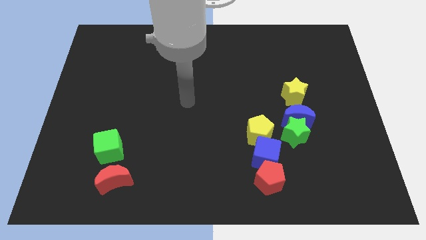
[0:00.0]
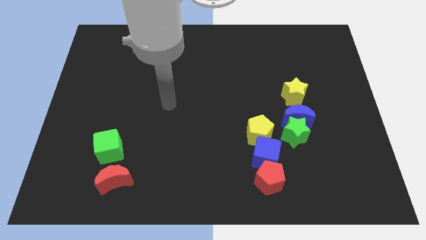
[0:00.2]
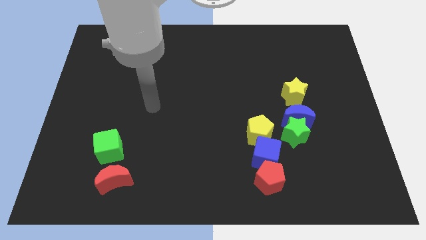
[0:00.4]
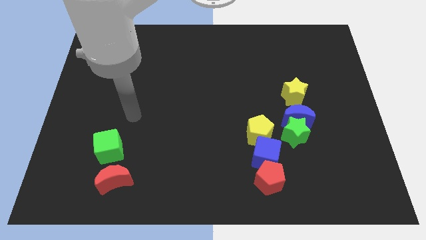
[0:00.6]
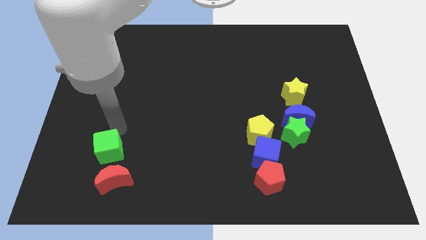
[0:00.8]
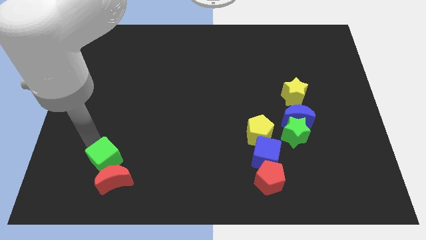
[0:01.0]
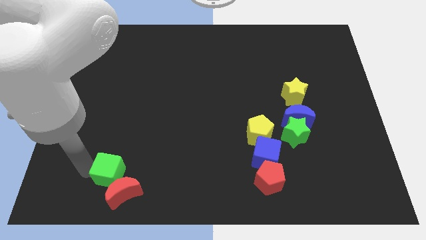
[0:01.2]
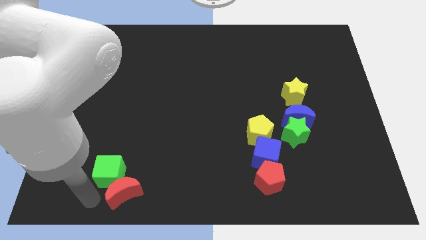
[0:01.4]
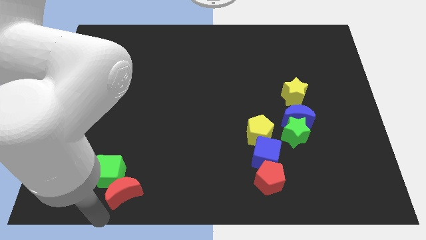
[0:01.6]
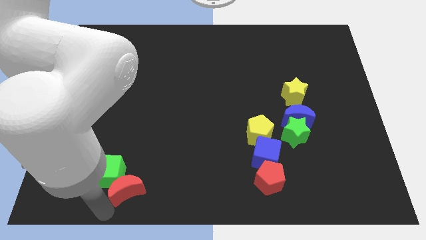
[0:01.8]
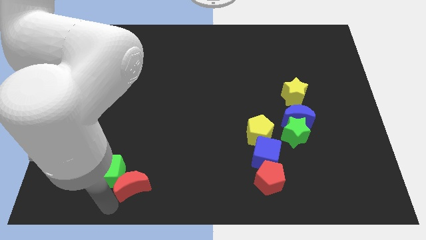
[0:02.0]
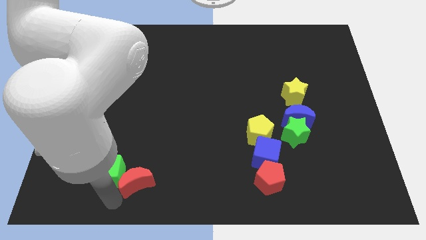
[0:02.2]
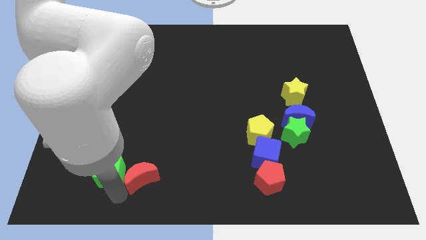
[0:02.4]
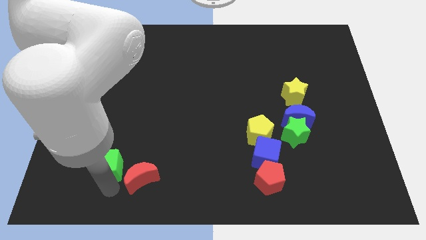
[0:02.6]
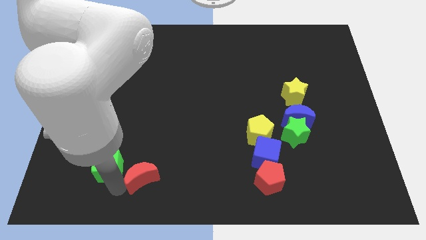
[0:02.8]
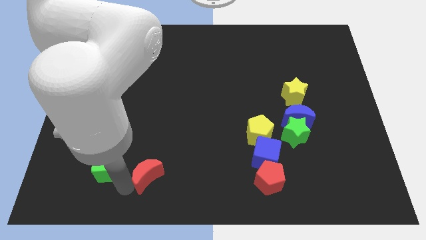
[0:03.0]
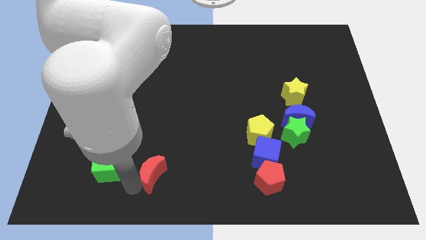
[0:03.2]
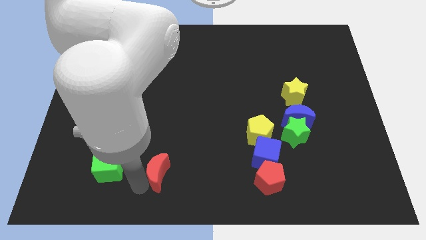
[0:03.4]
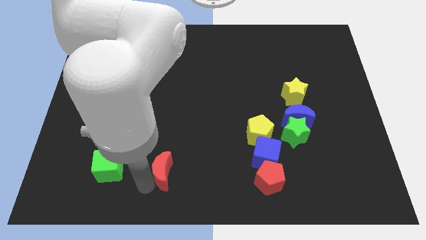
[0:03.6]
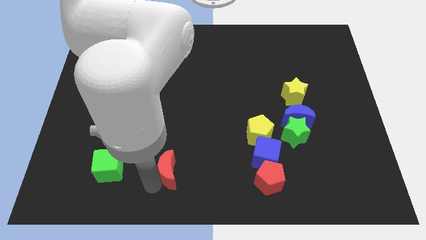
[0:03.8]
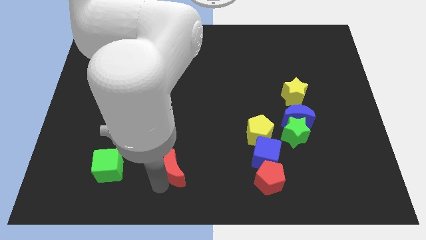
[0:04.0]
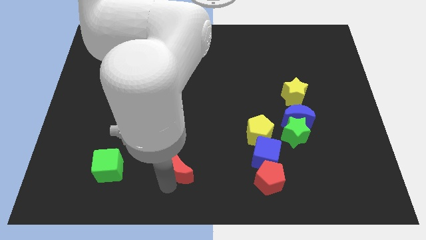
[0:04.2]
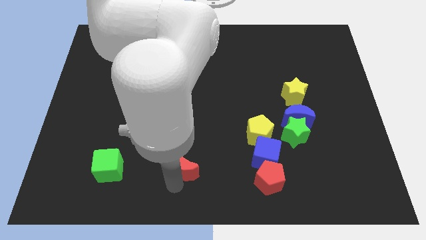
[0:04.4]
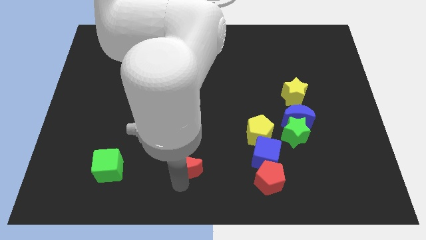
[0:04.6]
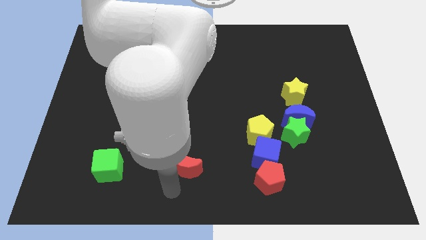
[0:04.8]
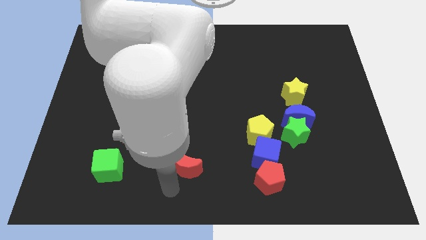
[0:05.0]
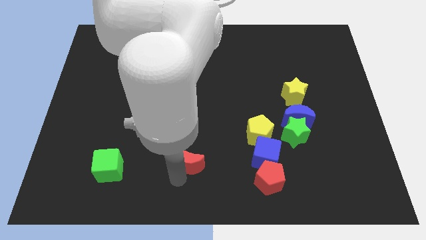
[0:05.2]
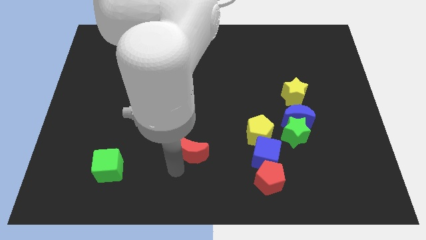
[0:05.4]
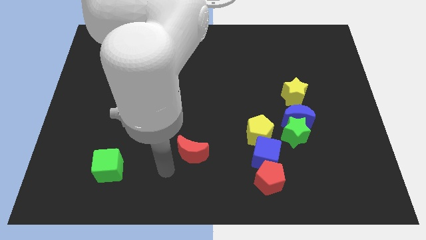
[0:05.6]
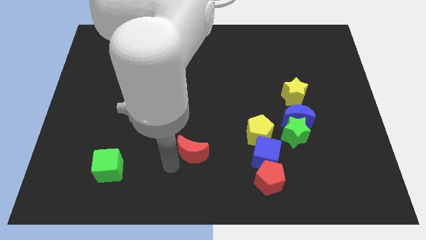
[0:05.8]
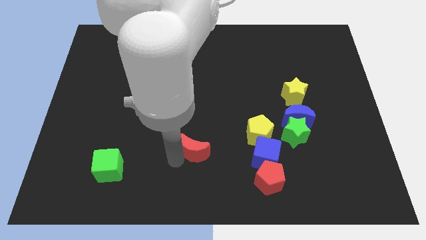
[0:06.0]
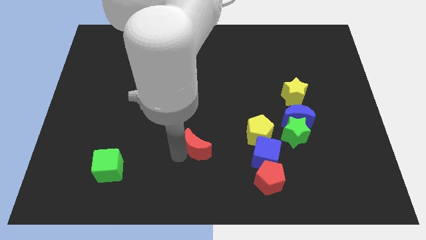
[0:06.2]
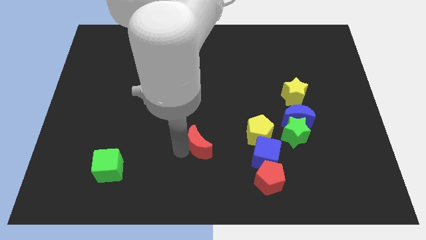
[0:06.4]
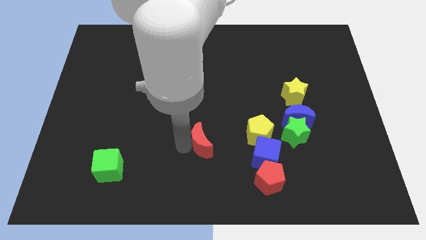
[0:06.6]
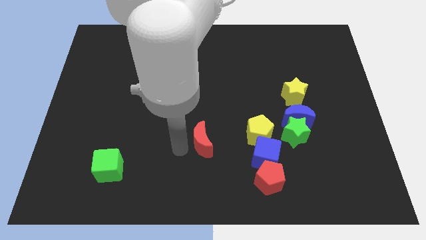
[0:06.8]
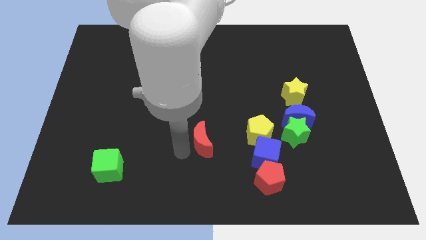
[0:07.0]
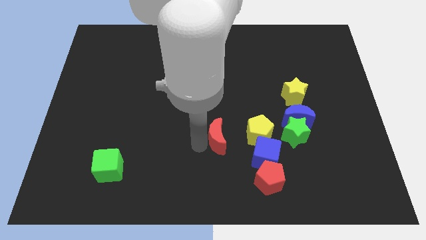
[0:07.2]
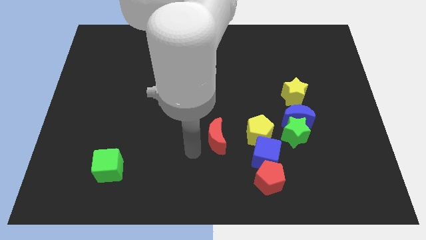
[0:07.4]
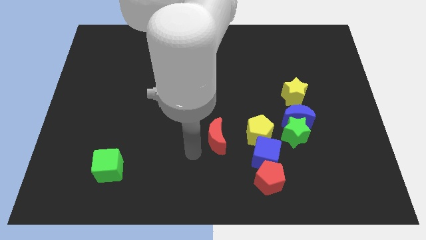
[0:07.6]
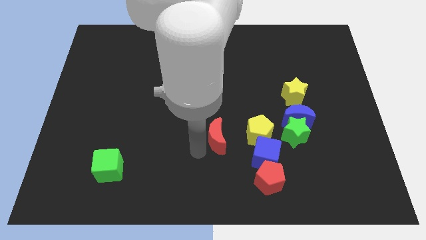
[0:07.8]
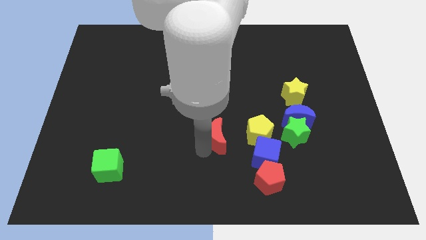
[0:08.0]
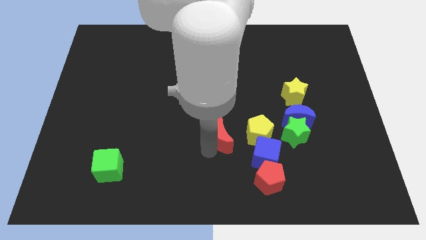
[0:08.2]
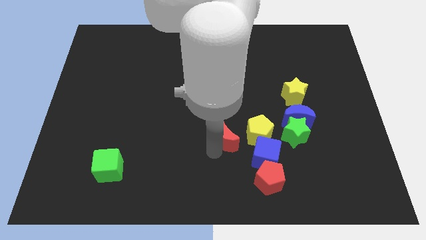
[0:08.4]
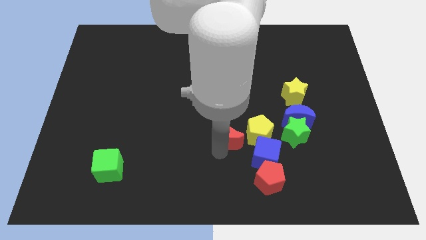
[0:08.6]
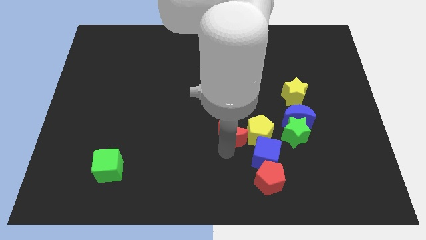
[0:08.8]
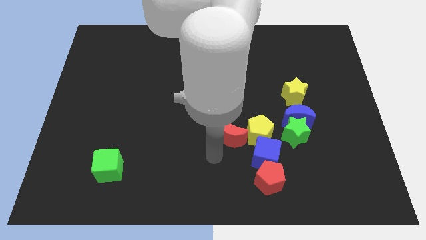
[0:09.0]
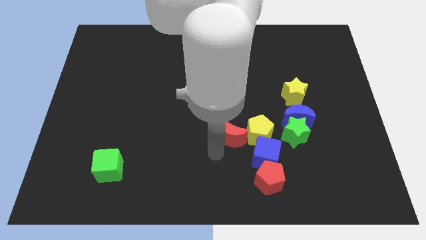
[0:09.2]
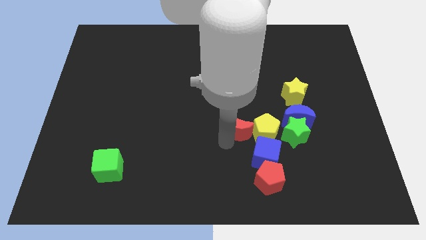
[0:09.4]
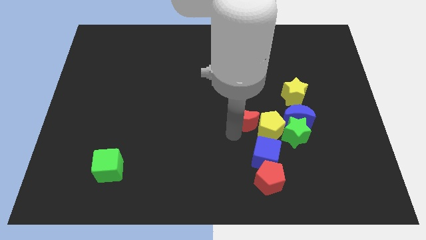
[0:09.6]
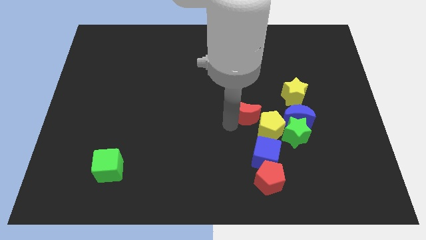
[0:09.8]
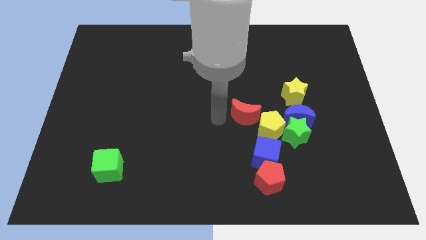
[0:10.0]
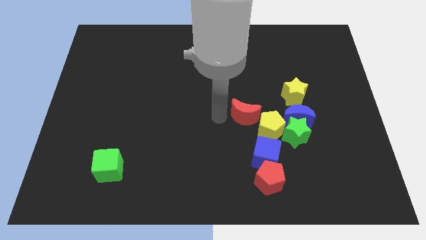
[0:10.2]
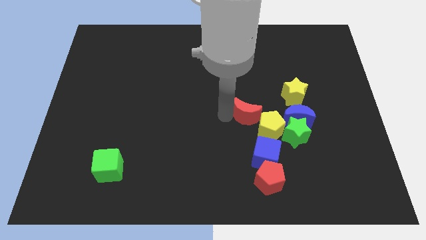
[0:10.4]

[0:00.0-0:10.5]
move the red moon to the top left of the green star

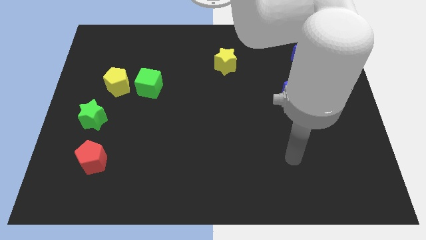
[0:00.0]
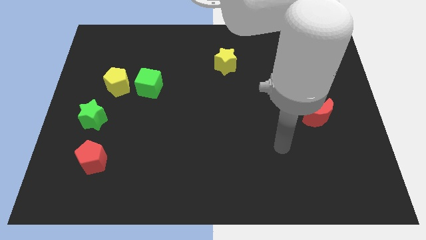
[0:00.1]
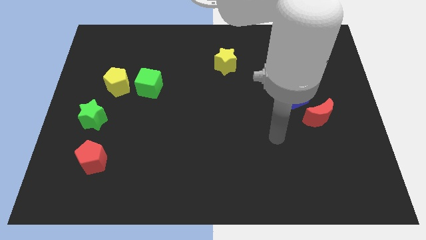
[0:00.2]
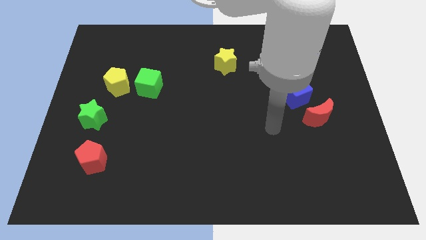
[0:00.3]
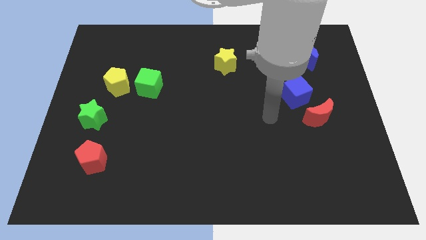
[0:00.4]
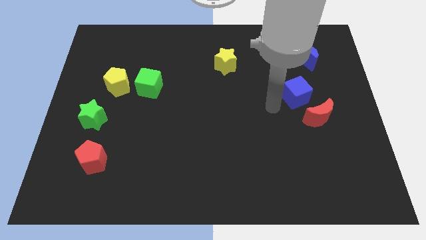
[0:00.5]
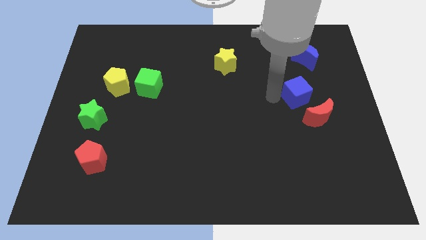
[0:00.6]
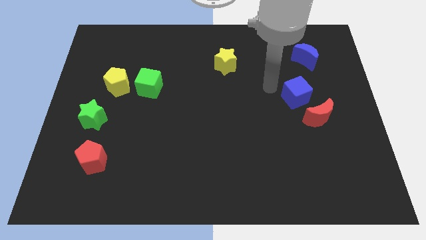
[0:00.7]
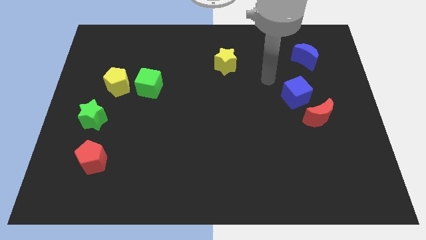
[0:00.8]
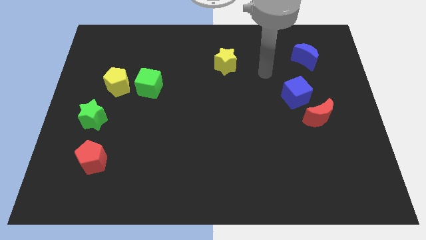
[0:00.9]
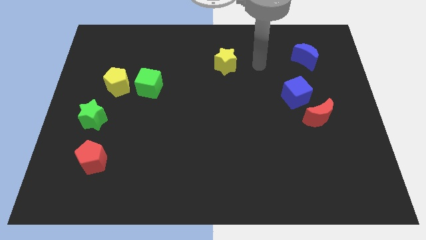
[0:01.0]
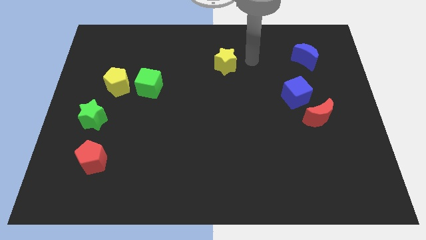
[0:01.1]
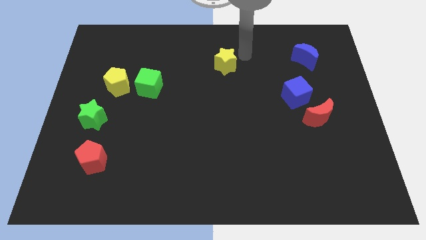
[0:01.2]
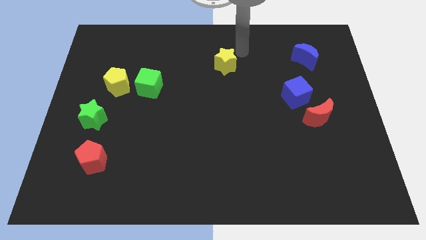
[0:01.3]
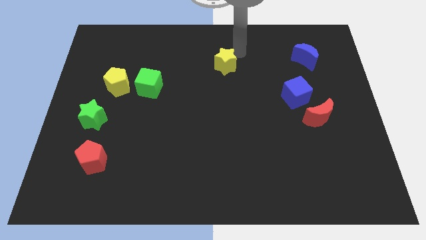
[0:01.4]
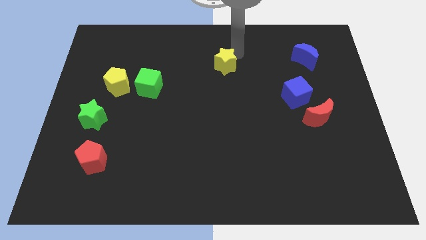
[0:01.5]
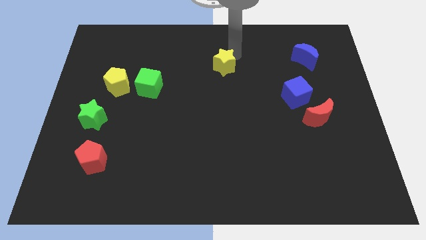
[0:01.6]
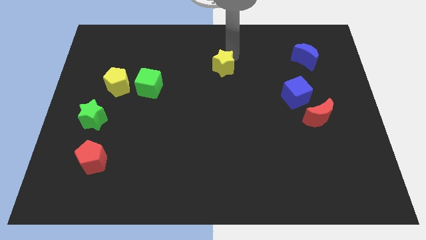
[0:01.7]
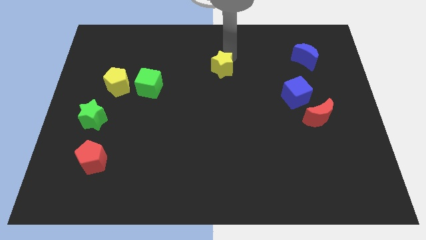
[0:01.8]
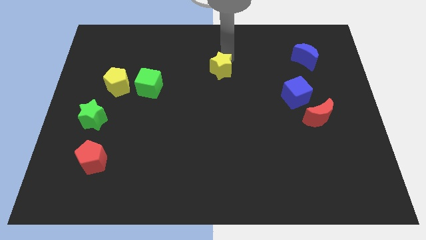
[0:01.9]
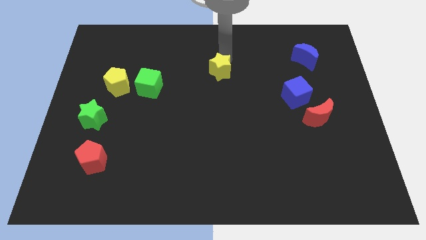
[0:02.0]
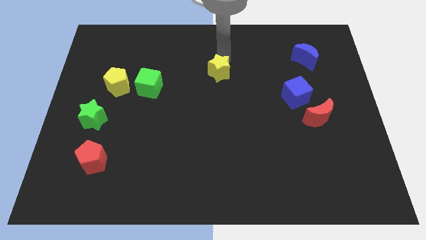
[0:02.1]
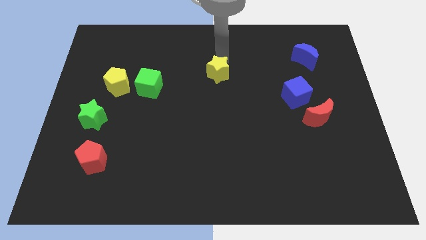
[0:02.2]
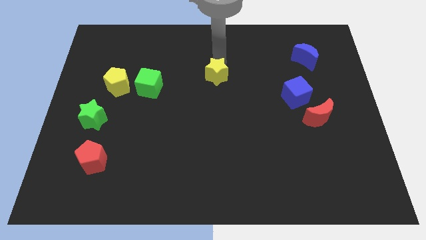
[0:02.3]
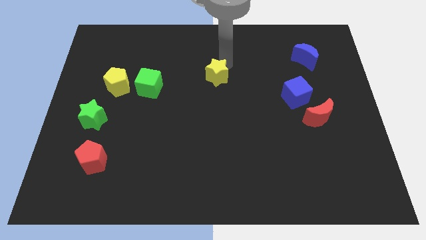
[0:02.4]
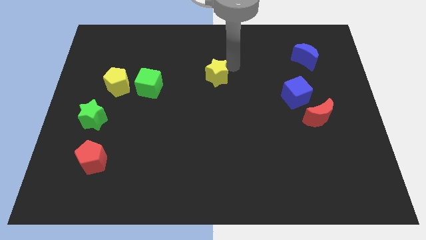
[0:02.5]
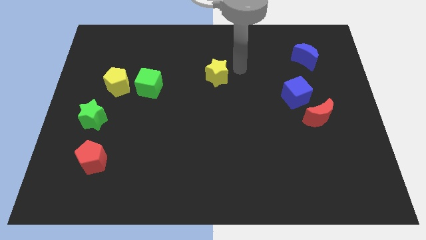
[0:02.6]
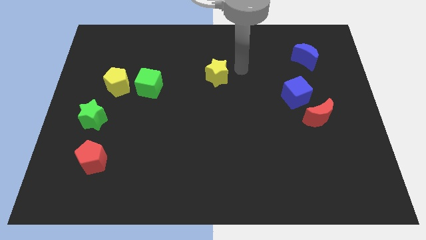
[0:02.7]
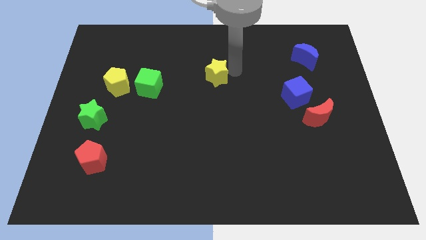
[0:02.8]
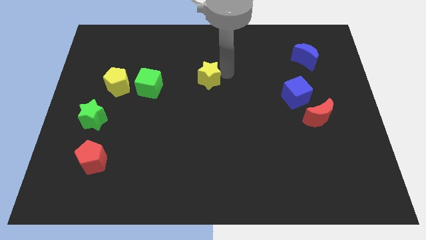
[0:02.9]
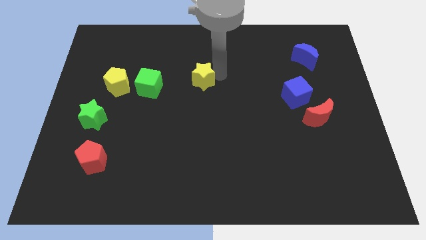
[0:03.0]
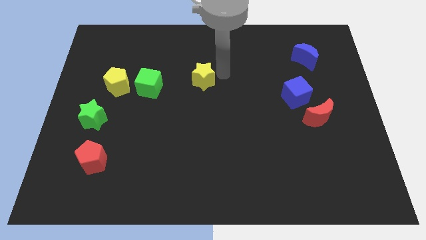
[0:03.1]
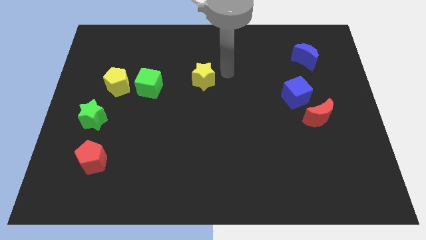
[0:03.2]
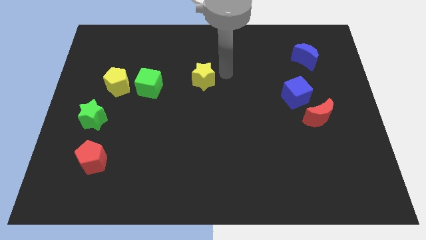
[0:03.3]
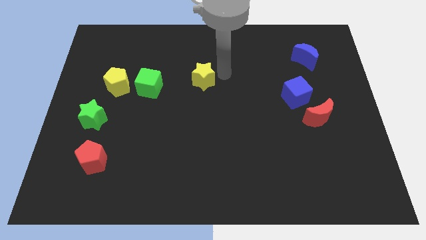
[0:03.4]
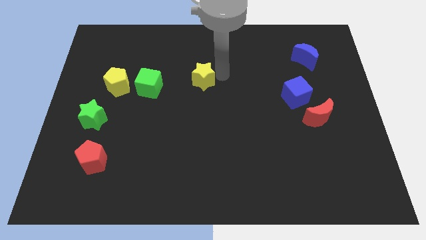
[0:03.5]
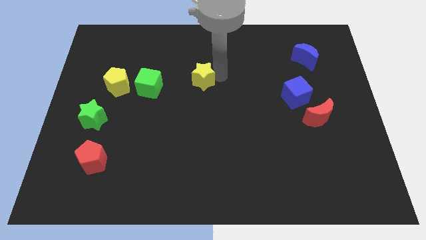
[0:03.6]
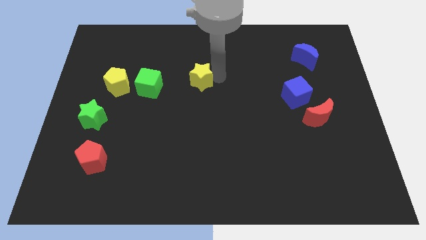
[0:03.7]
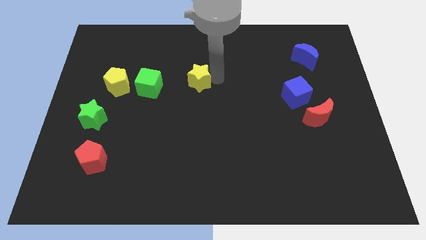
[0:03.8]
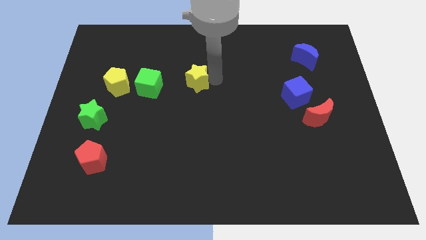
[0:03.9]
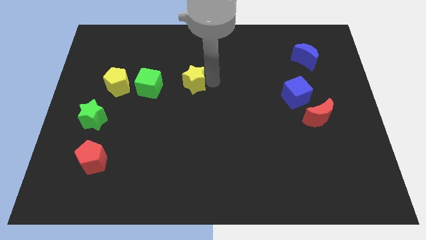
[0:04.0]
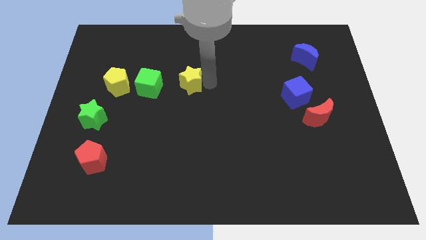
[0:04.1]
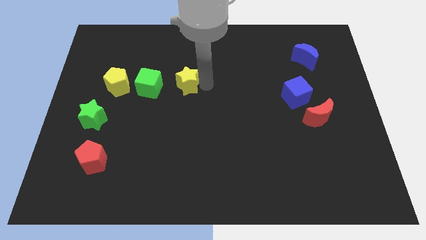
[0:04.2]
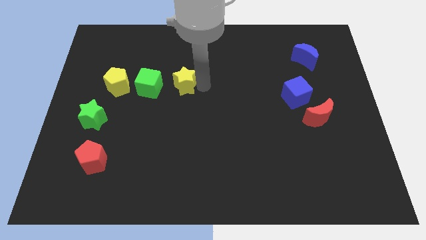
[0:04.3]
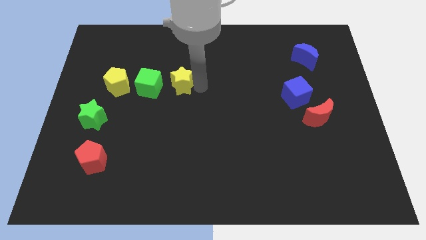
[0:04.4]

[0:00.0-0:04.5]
move the yellow star right of the yellow pentagon
